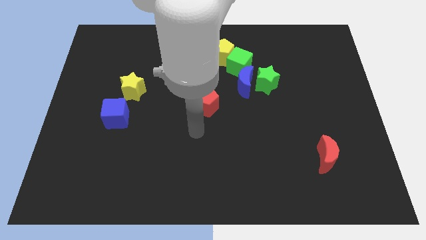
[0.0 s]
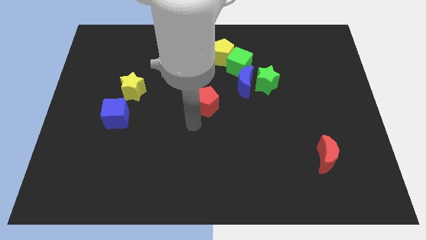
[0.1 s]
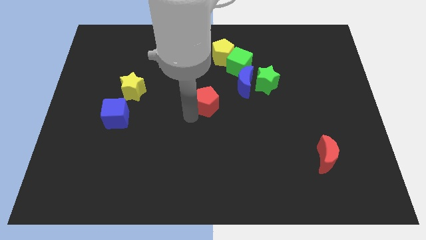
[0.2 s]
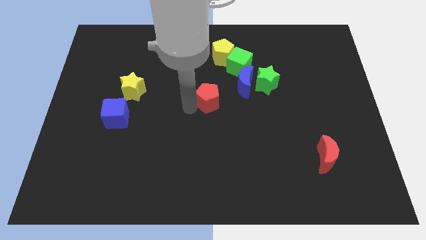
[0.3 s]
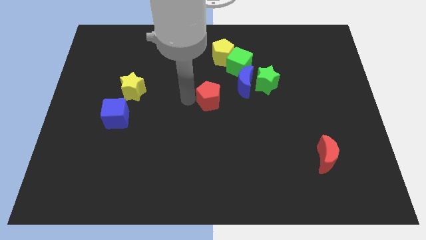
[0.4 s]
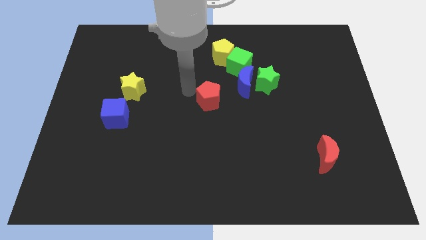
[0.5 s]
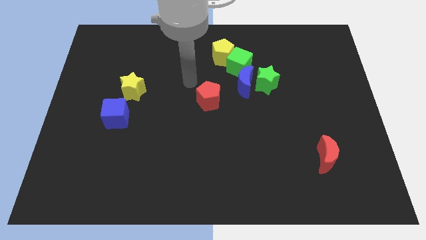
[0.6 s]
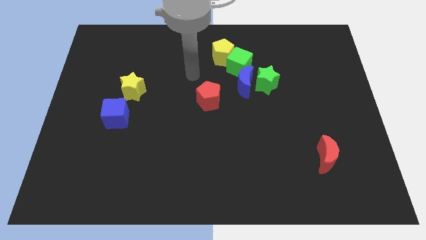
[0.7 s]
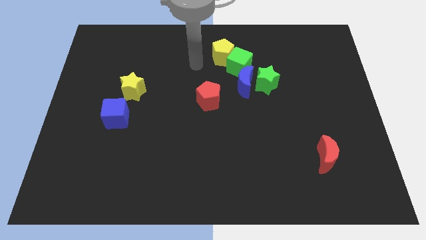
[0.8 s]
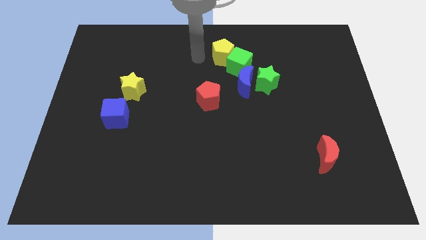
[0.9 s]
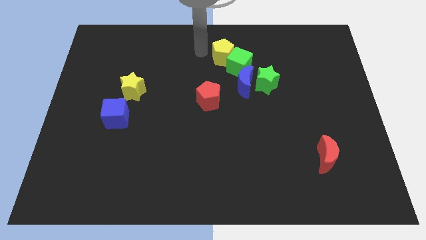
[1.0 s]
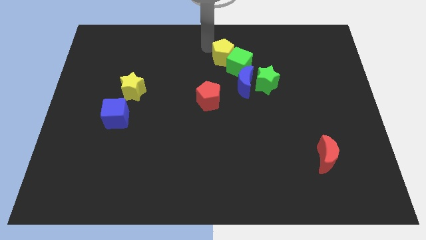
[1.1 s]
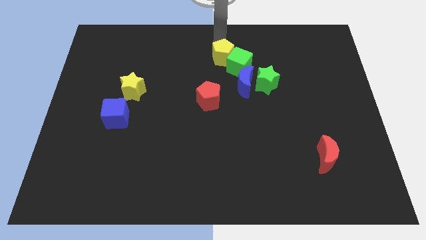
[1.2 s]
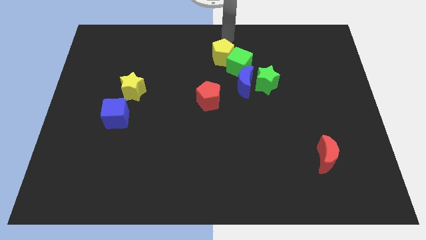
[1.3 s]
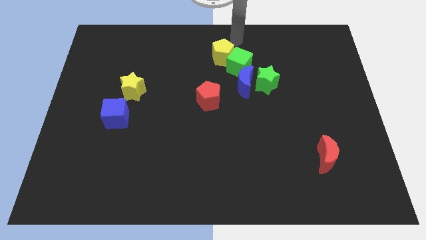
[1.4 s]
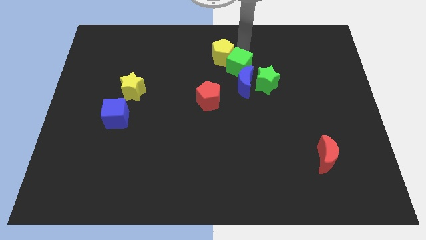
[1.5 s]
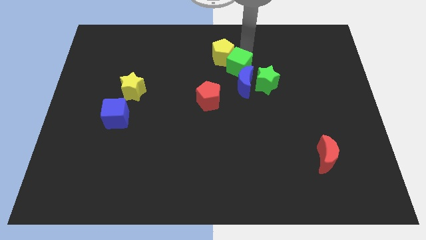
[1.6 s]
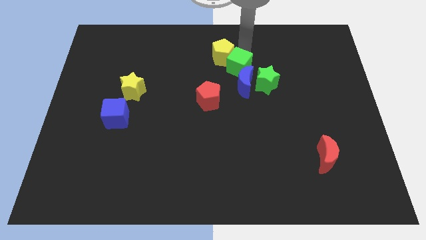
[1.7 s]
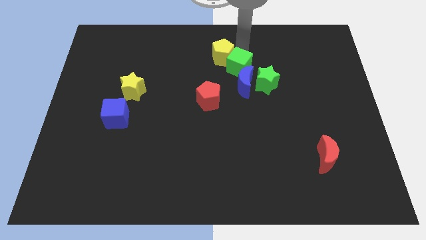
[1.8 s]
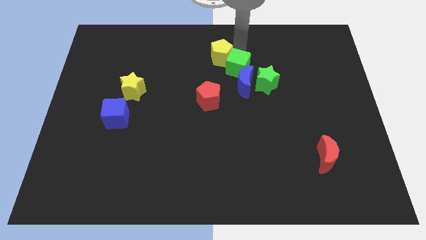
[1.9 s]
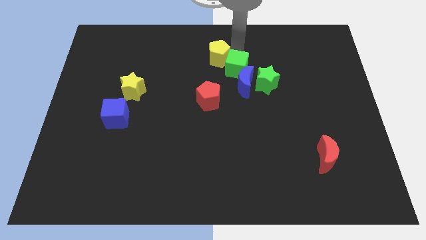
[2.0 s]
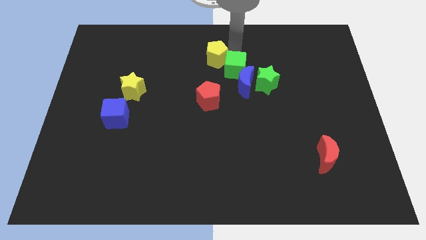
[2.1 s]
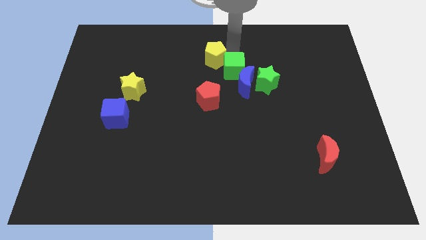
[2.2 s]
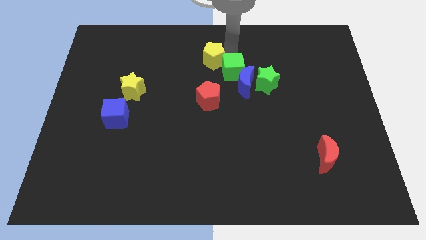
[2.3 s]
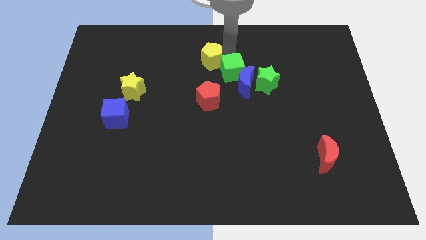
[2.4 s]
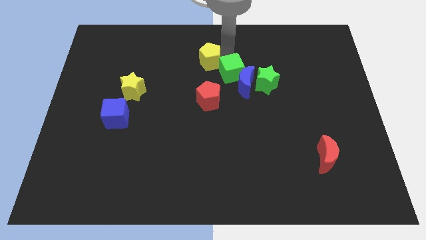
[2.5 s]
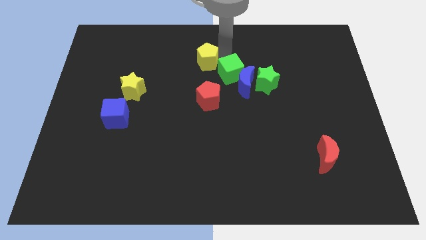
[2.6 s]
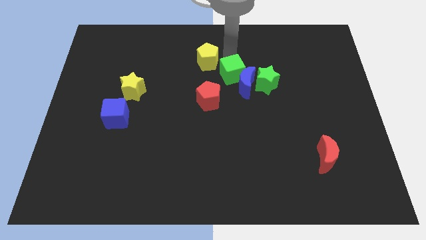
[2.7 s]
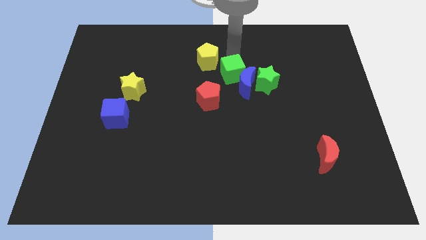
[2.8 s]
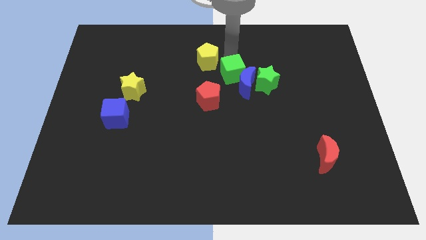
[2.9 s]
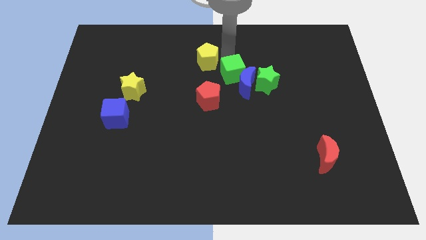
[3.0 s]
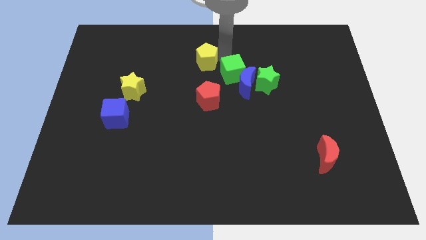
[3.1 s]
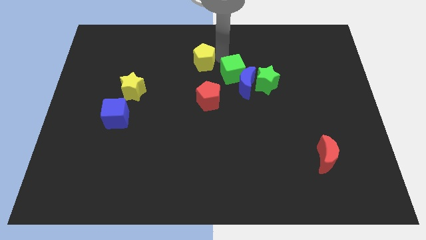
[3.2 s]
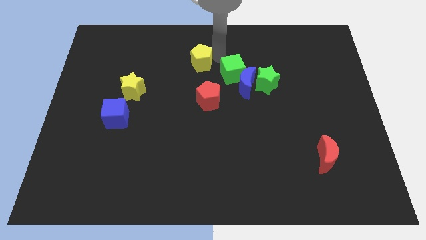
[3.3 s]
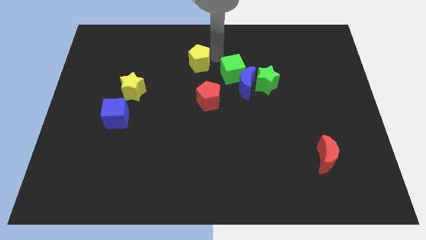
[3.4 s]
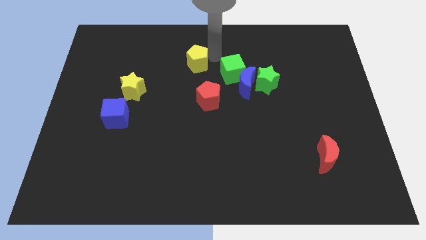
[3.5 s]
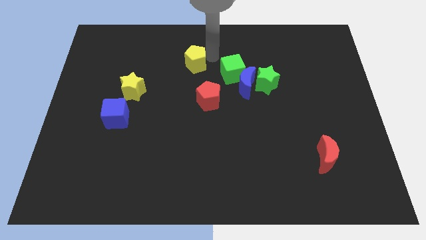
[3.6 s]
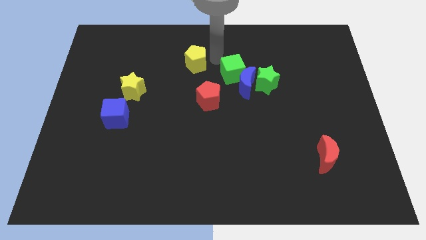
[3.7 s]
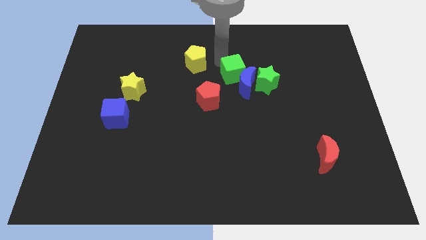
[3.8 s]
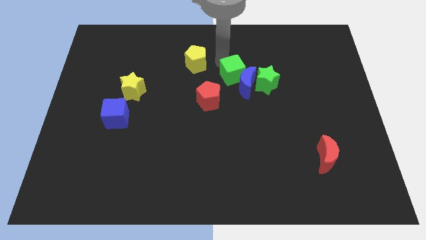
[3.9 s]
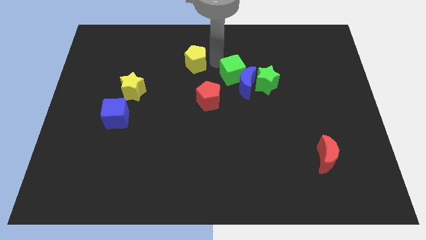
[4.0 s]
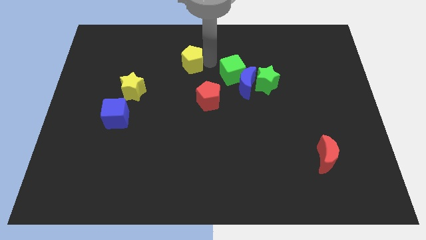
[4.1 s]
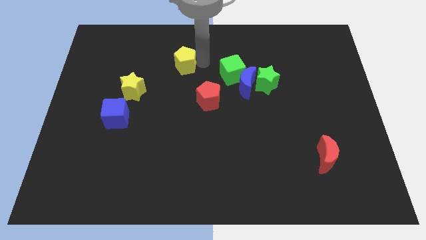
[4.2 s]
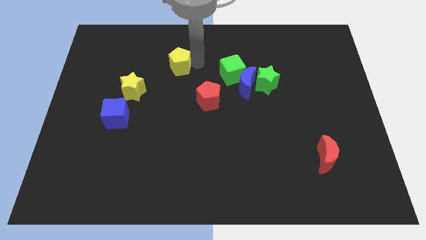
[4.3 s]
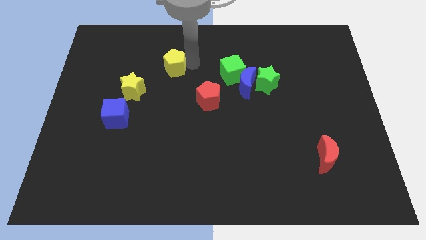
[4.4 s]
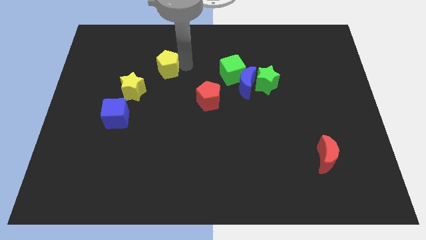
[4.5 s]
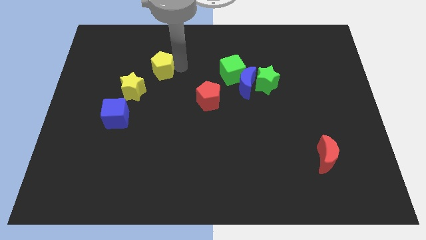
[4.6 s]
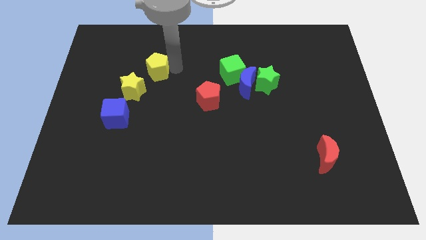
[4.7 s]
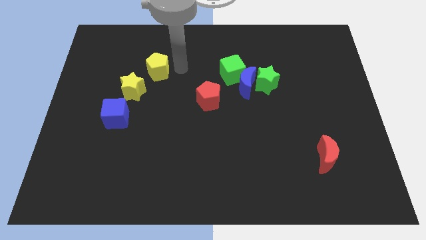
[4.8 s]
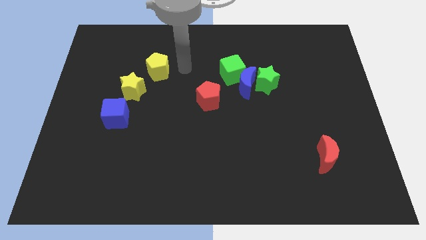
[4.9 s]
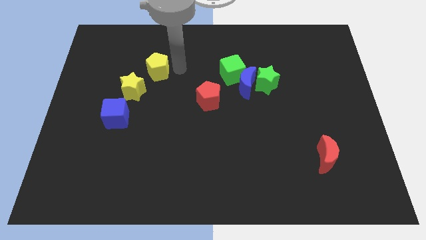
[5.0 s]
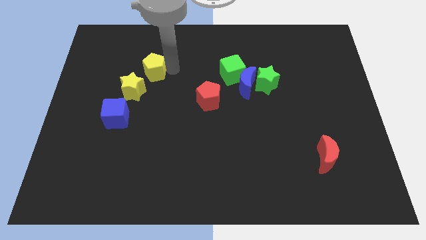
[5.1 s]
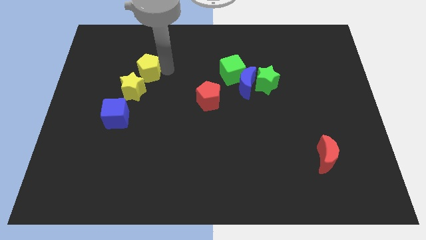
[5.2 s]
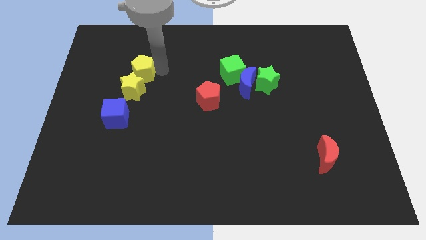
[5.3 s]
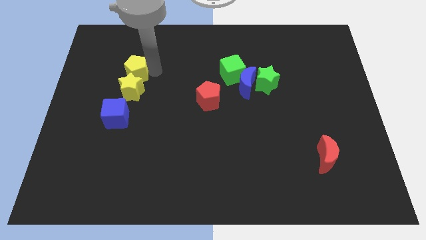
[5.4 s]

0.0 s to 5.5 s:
slide the yellow pentagon to the top left side of the yellow star

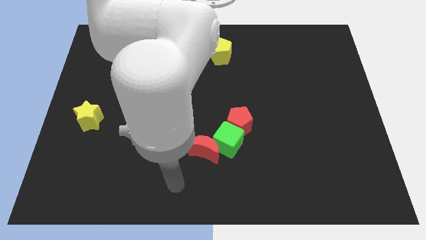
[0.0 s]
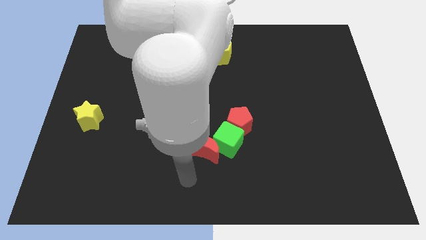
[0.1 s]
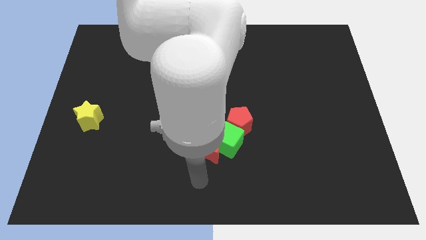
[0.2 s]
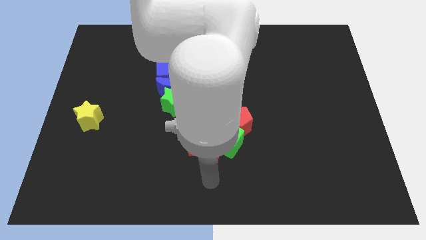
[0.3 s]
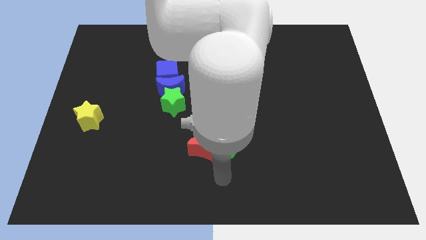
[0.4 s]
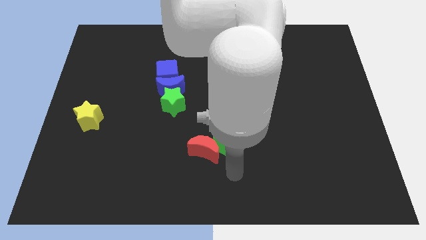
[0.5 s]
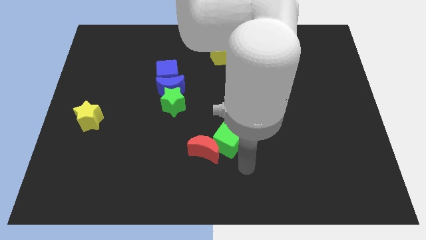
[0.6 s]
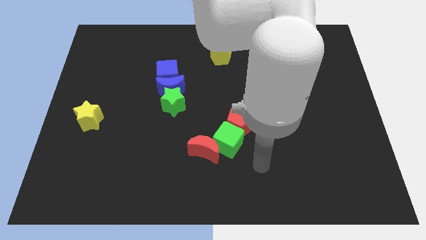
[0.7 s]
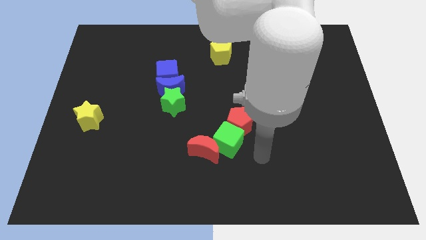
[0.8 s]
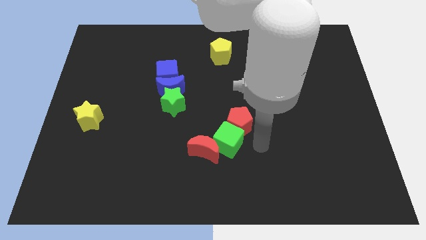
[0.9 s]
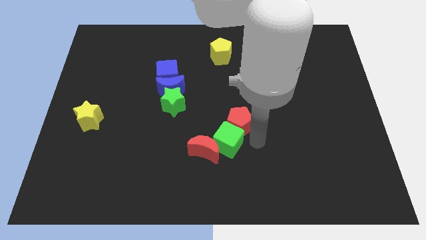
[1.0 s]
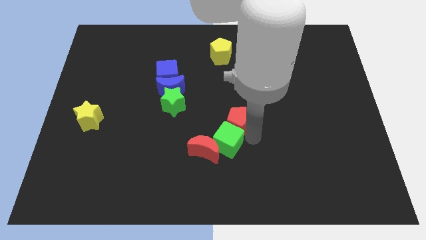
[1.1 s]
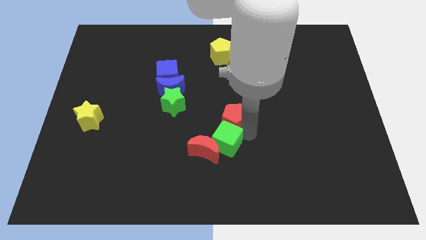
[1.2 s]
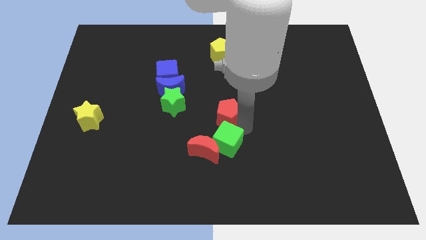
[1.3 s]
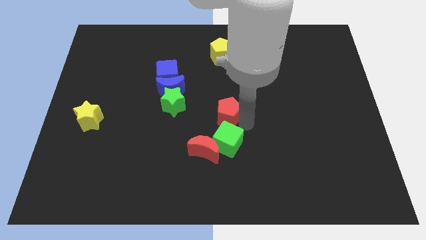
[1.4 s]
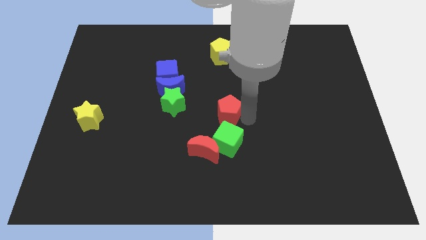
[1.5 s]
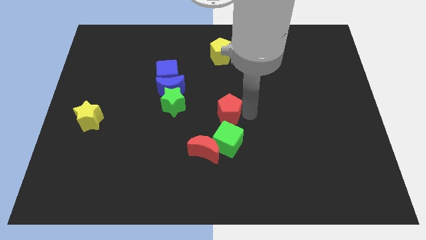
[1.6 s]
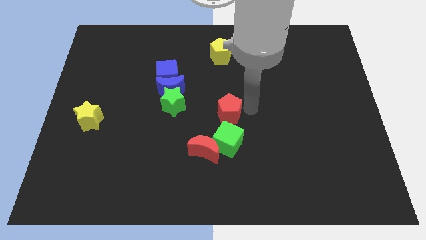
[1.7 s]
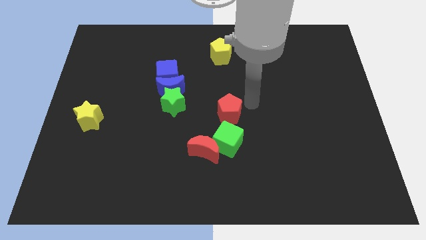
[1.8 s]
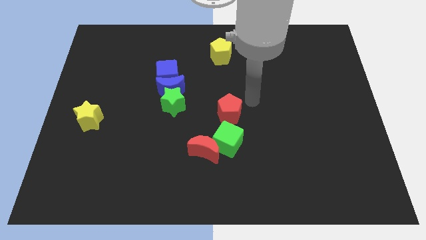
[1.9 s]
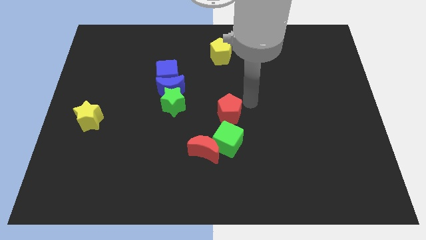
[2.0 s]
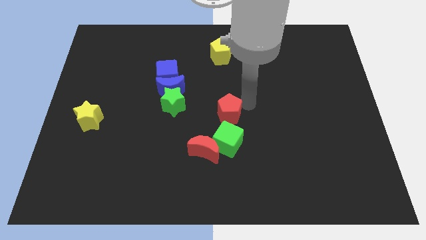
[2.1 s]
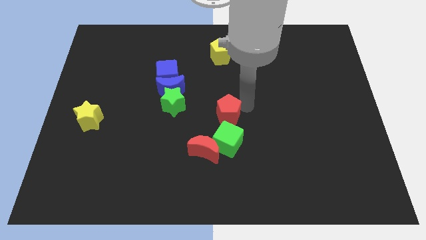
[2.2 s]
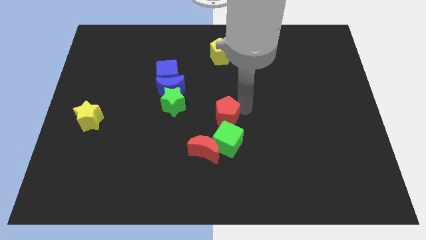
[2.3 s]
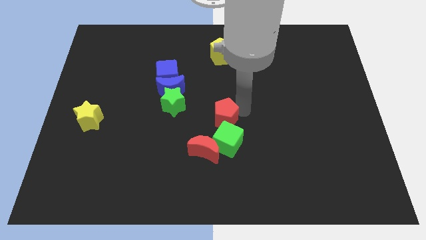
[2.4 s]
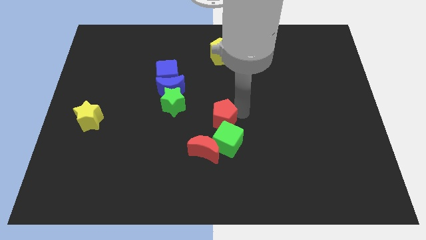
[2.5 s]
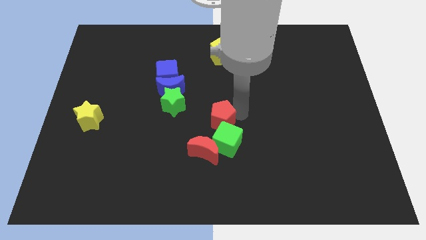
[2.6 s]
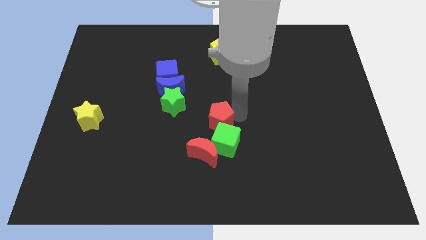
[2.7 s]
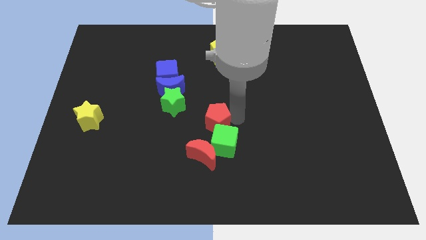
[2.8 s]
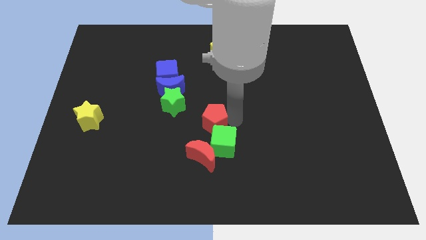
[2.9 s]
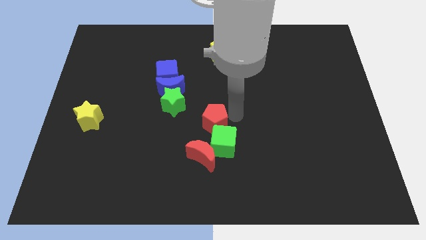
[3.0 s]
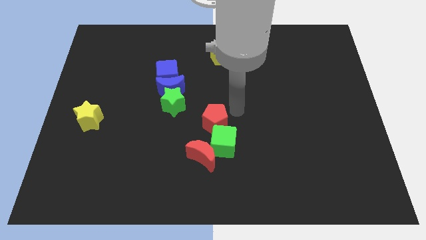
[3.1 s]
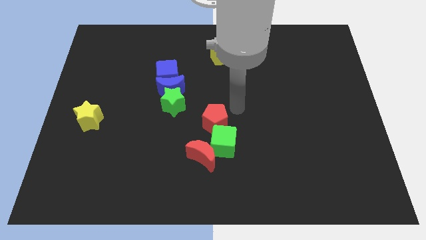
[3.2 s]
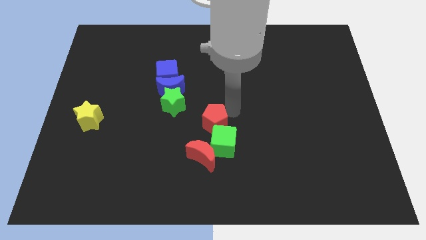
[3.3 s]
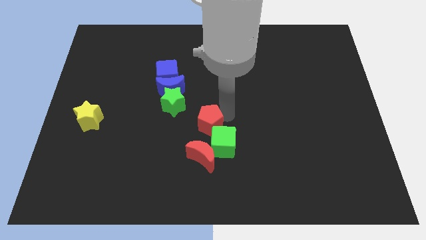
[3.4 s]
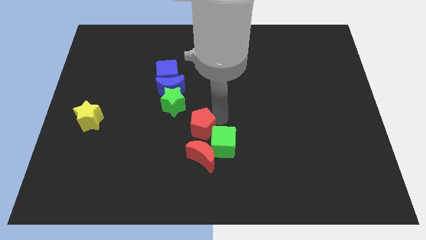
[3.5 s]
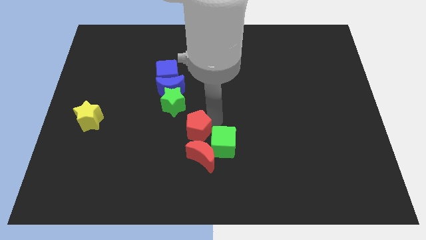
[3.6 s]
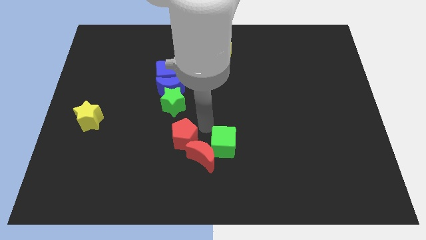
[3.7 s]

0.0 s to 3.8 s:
slide the red pentagon just left of the red moon
